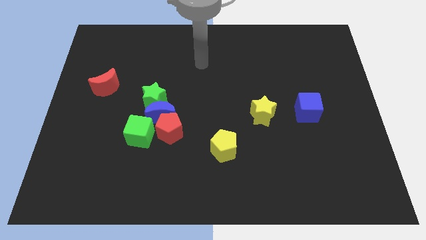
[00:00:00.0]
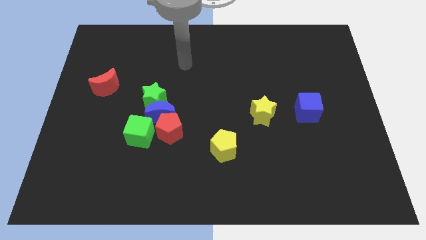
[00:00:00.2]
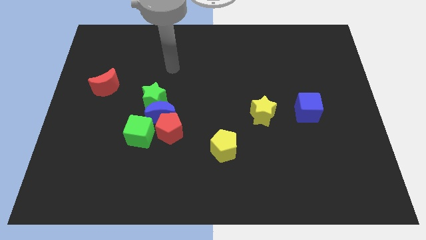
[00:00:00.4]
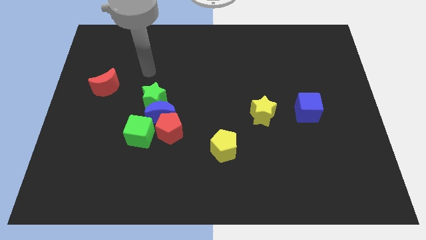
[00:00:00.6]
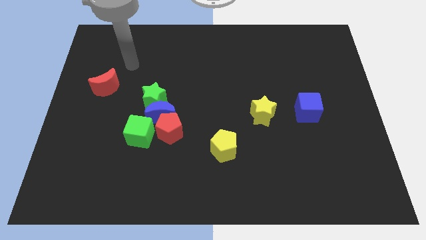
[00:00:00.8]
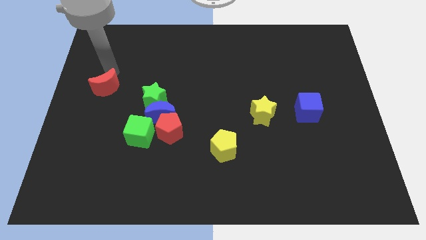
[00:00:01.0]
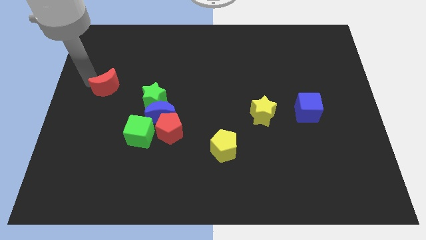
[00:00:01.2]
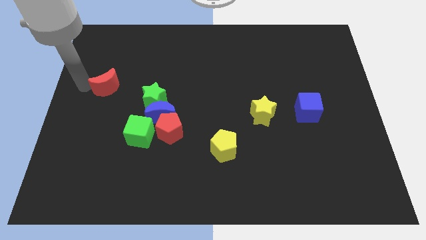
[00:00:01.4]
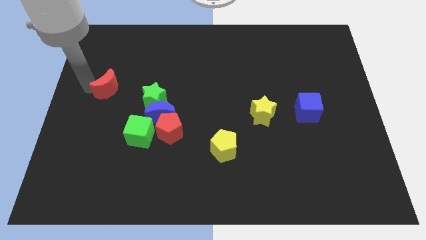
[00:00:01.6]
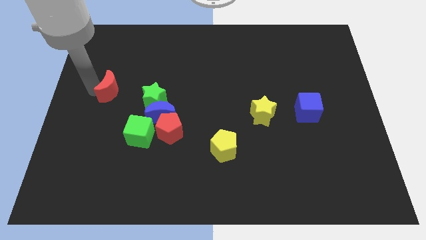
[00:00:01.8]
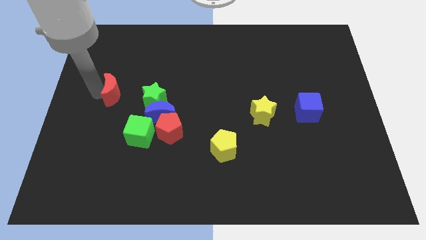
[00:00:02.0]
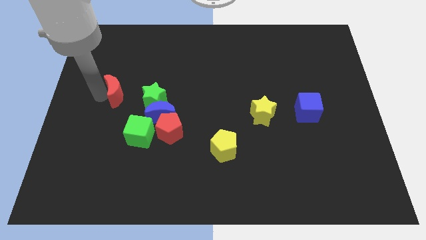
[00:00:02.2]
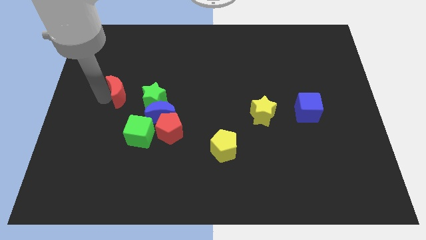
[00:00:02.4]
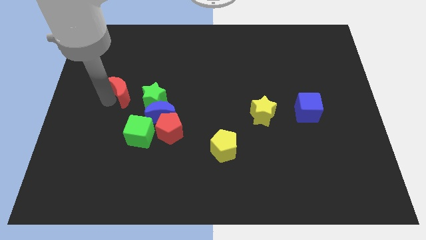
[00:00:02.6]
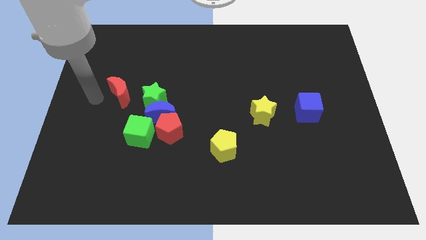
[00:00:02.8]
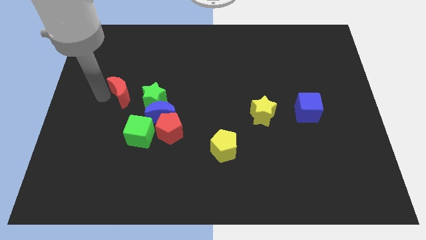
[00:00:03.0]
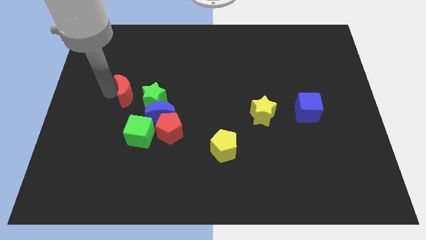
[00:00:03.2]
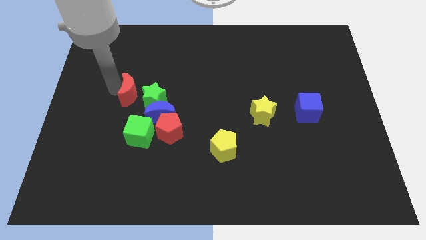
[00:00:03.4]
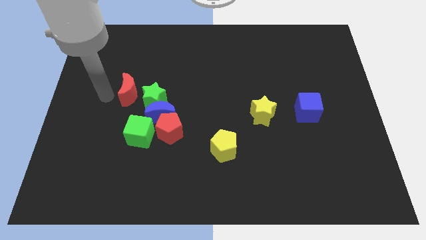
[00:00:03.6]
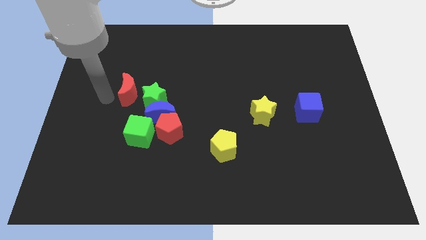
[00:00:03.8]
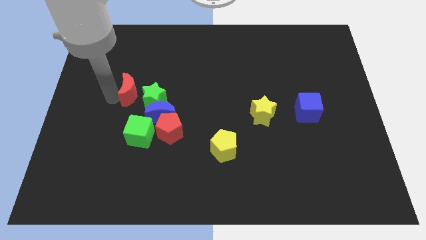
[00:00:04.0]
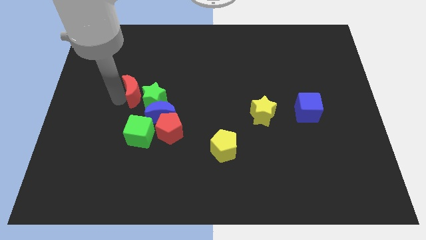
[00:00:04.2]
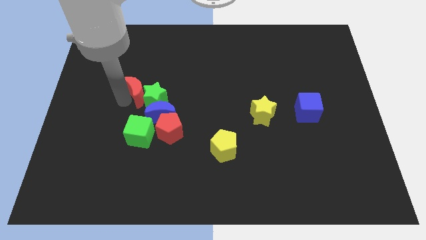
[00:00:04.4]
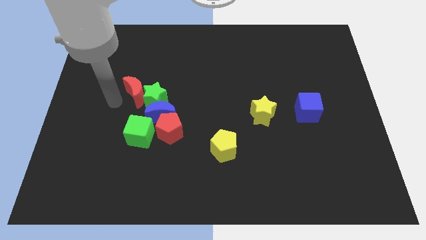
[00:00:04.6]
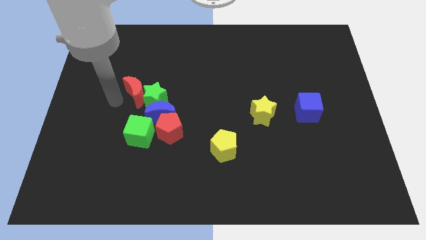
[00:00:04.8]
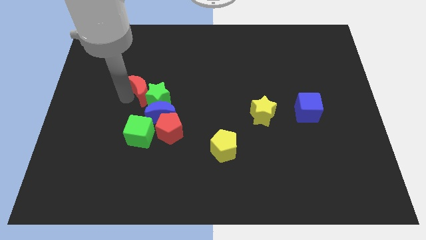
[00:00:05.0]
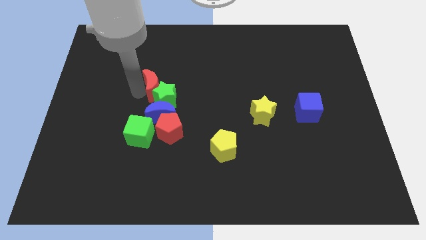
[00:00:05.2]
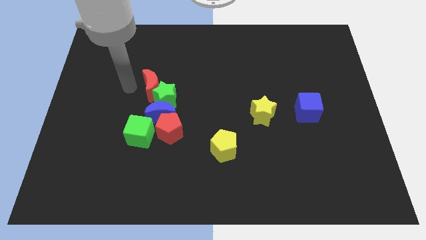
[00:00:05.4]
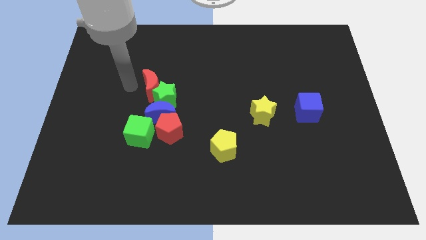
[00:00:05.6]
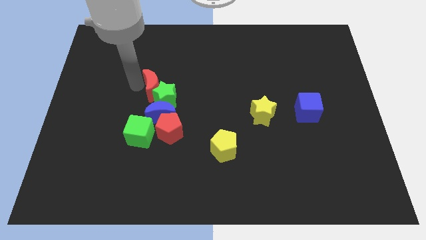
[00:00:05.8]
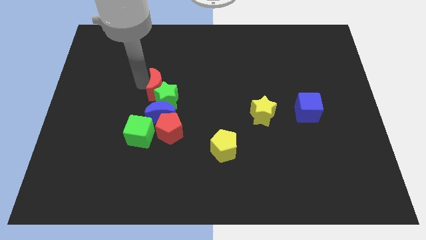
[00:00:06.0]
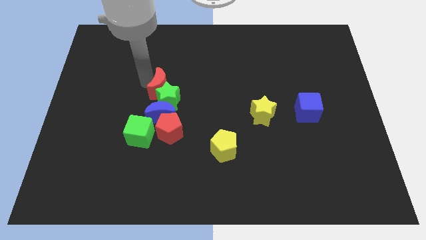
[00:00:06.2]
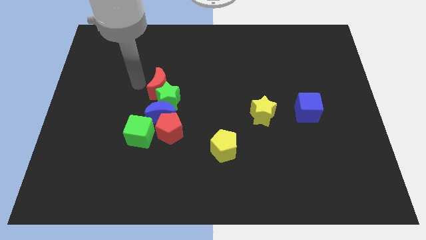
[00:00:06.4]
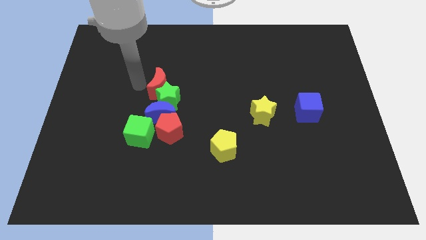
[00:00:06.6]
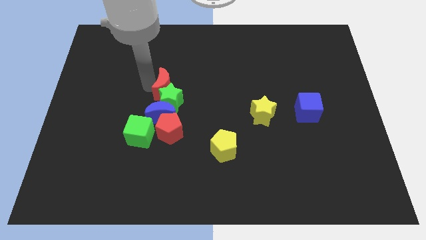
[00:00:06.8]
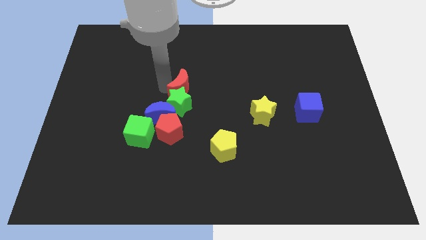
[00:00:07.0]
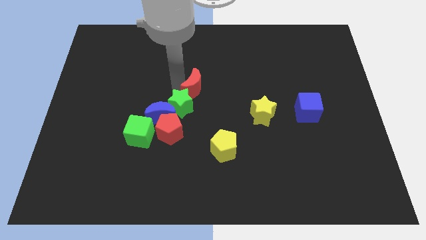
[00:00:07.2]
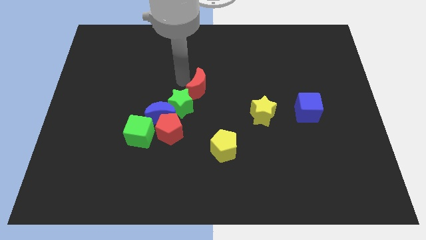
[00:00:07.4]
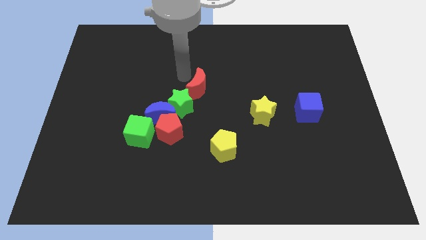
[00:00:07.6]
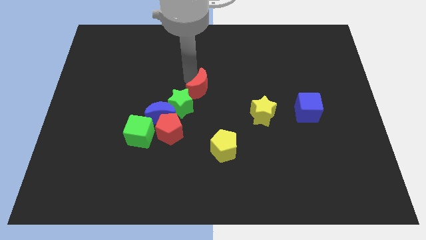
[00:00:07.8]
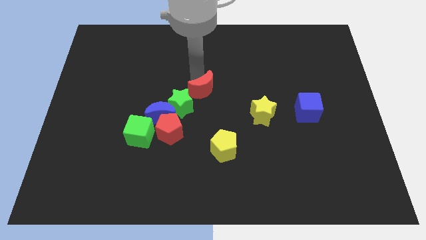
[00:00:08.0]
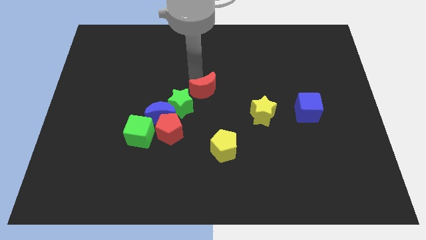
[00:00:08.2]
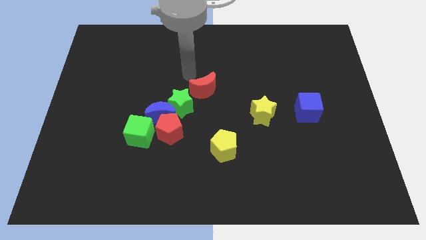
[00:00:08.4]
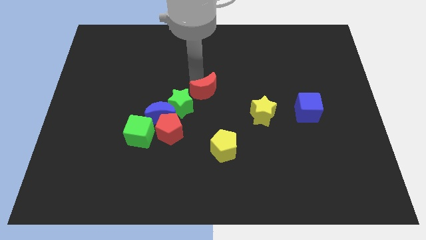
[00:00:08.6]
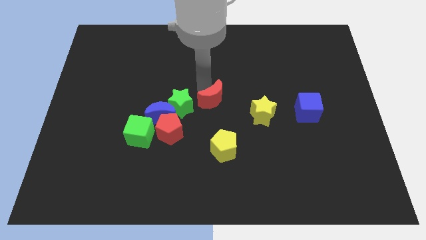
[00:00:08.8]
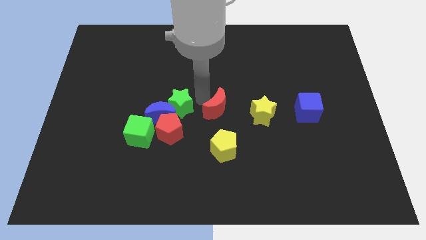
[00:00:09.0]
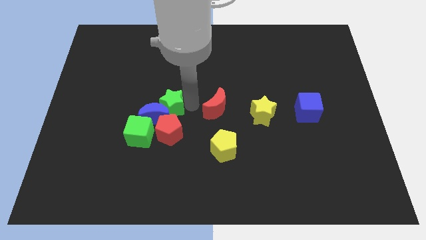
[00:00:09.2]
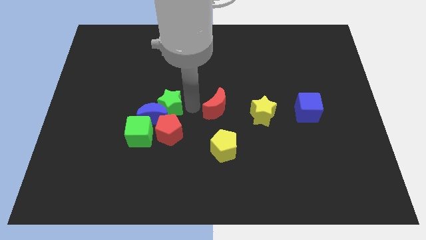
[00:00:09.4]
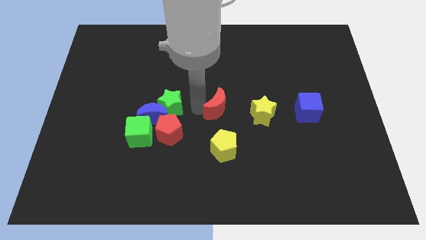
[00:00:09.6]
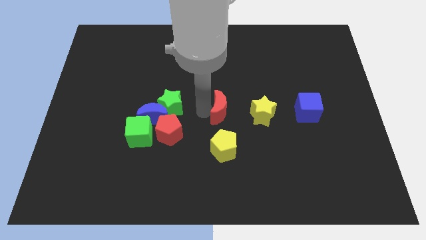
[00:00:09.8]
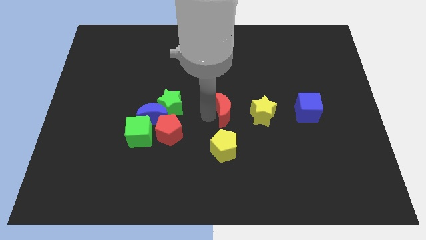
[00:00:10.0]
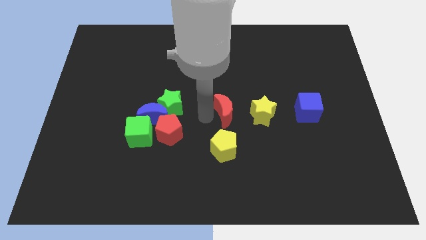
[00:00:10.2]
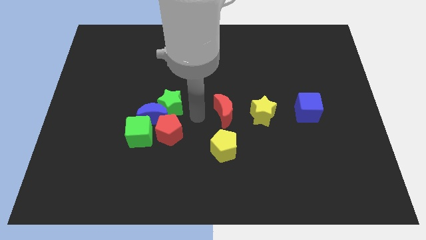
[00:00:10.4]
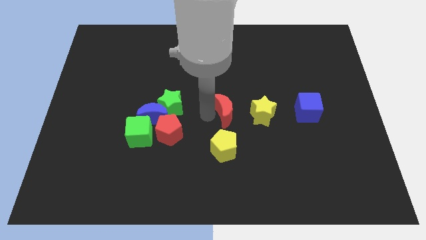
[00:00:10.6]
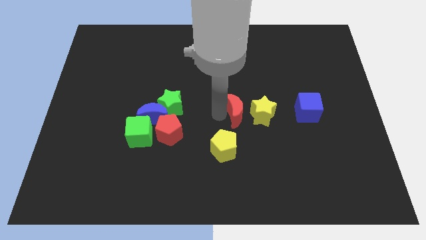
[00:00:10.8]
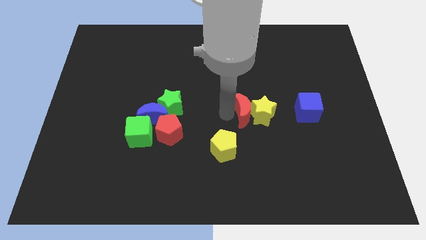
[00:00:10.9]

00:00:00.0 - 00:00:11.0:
put the red moon just left of the blue cube

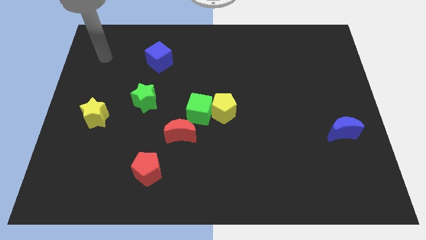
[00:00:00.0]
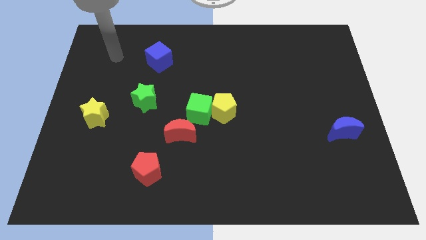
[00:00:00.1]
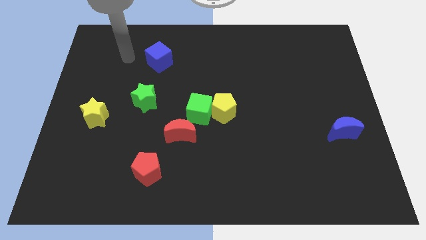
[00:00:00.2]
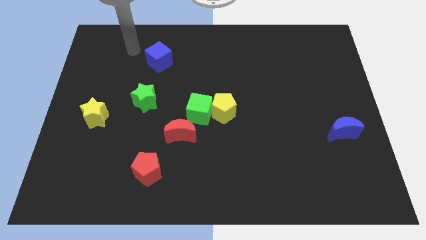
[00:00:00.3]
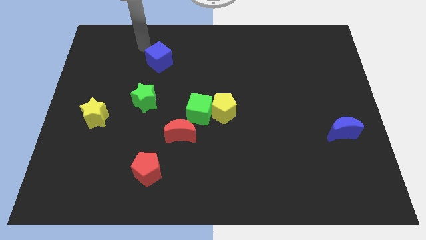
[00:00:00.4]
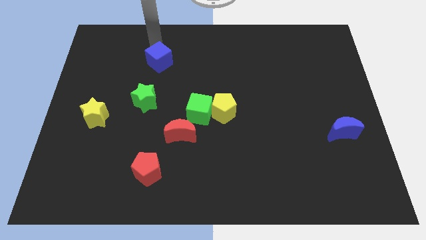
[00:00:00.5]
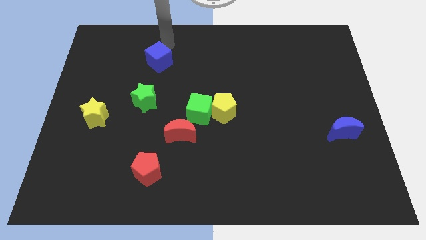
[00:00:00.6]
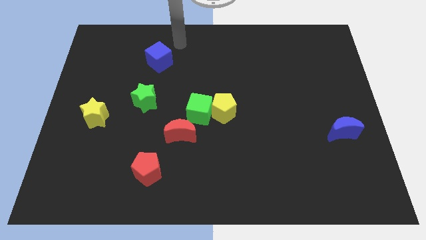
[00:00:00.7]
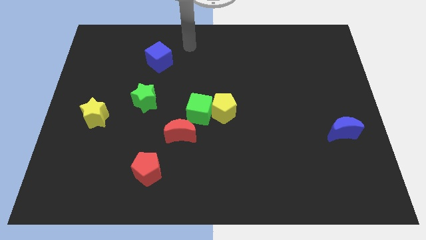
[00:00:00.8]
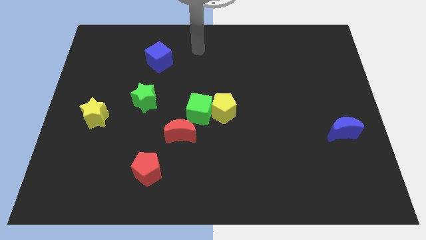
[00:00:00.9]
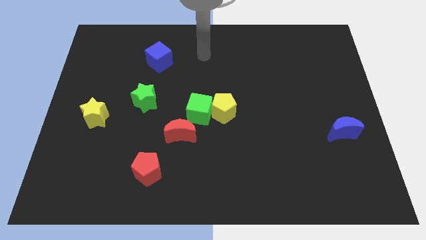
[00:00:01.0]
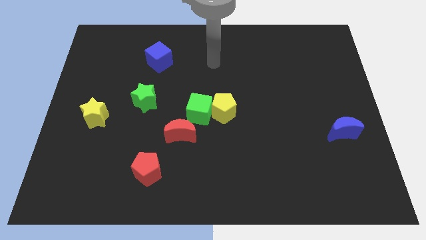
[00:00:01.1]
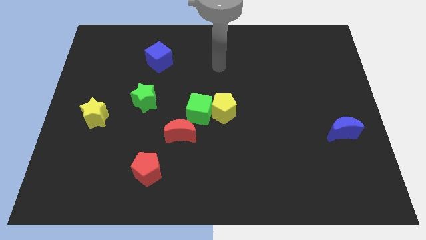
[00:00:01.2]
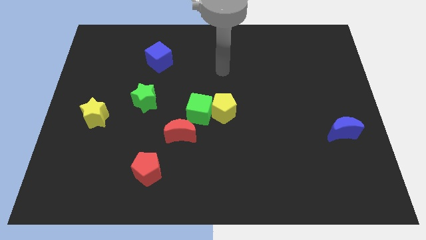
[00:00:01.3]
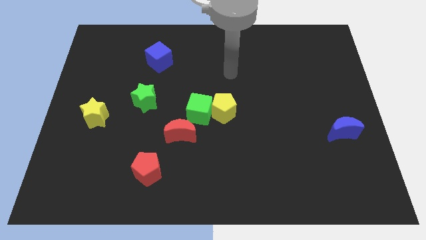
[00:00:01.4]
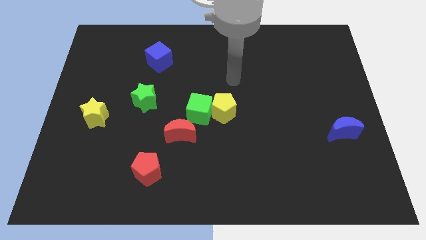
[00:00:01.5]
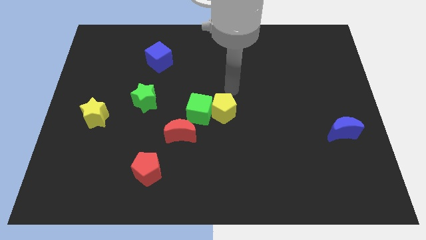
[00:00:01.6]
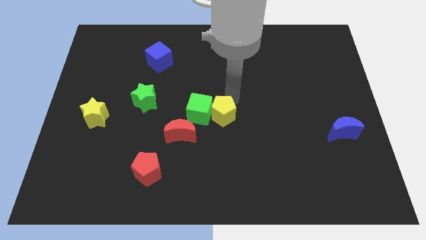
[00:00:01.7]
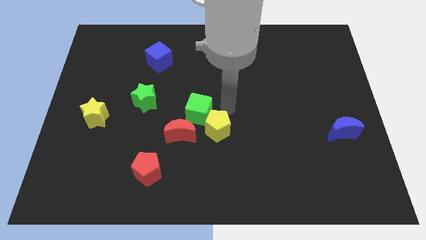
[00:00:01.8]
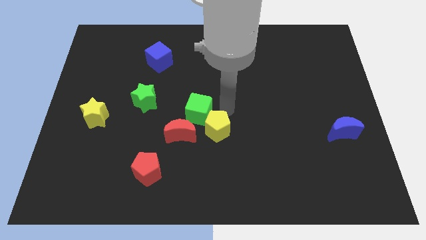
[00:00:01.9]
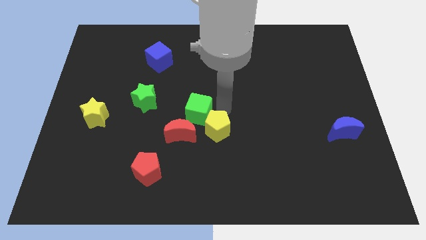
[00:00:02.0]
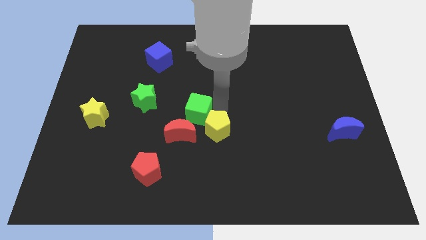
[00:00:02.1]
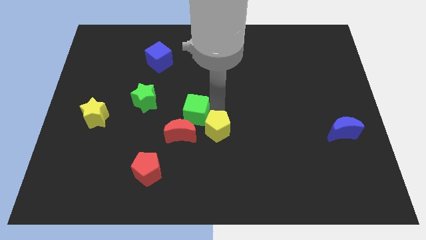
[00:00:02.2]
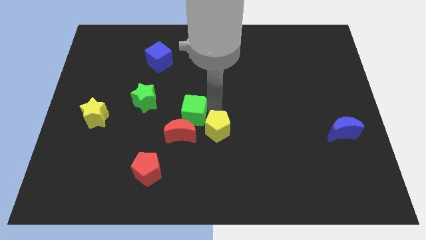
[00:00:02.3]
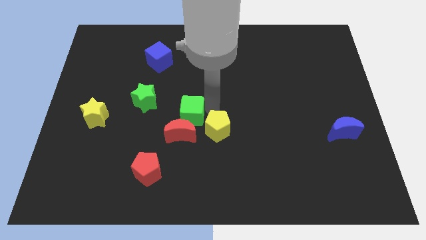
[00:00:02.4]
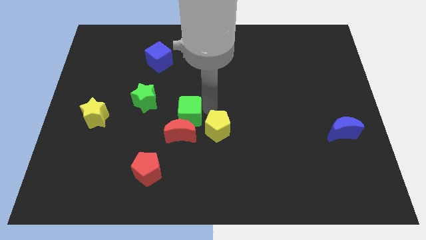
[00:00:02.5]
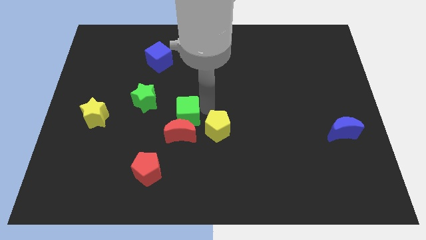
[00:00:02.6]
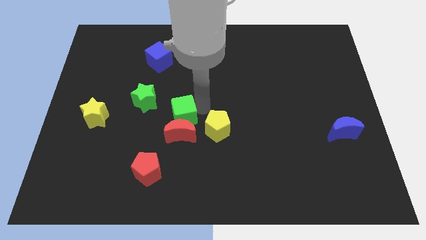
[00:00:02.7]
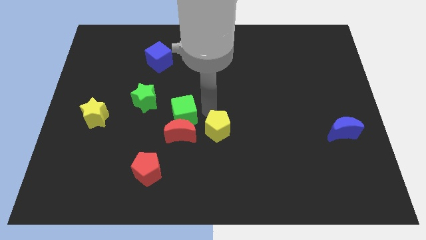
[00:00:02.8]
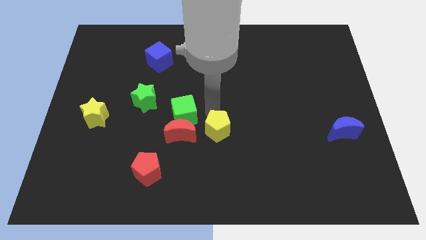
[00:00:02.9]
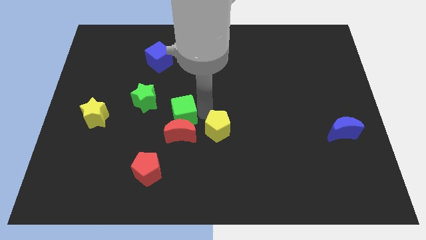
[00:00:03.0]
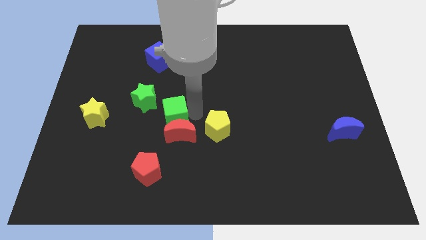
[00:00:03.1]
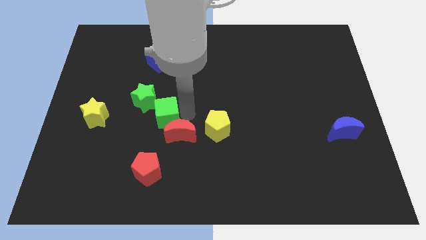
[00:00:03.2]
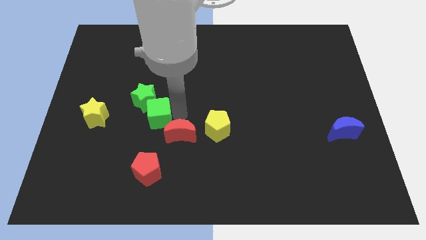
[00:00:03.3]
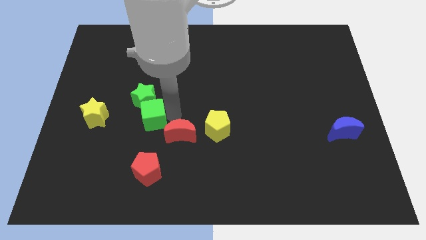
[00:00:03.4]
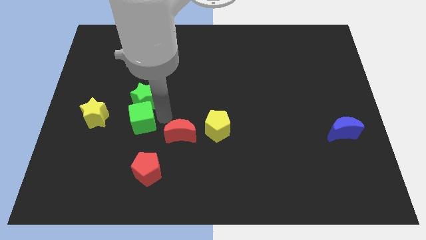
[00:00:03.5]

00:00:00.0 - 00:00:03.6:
push the green cube to the bottom left of the green star
